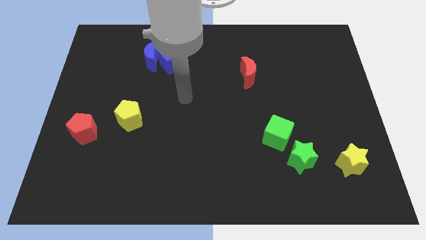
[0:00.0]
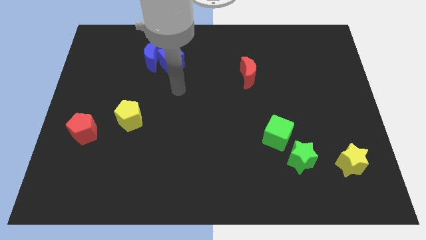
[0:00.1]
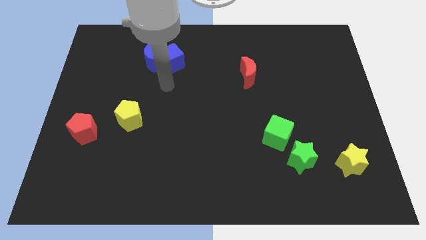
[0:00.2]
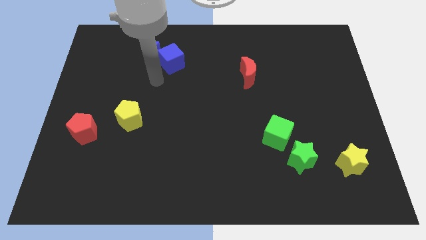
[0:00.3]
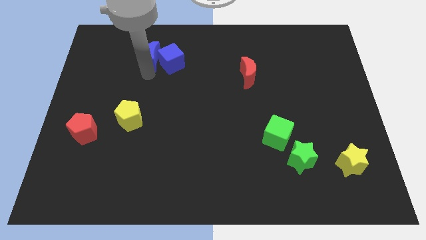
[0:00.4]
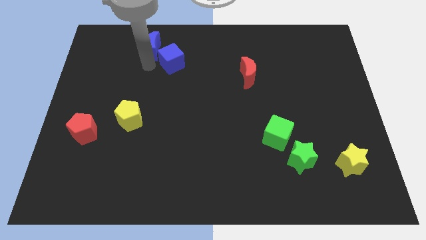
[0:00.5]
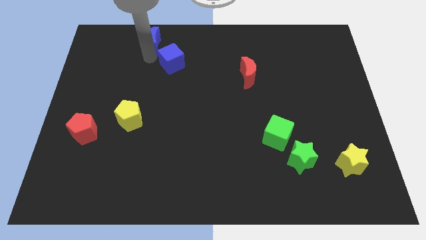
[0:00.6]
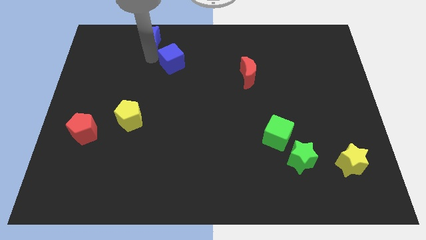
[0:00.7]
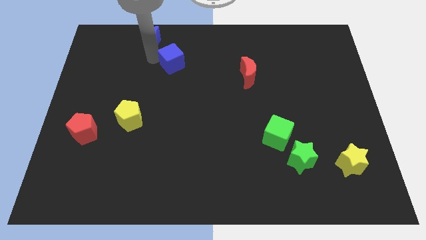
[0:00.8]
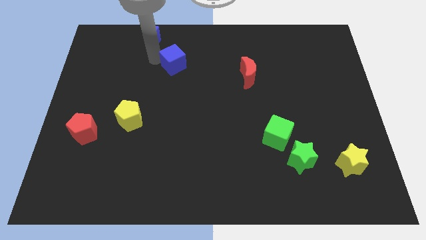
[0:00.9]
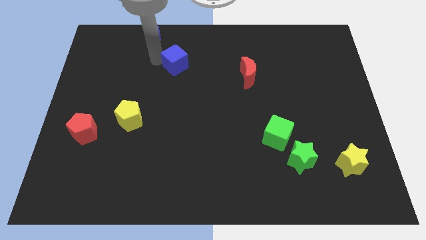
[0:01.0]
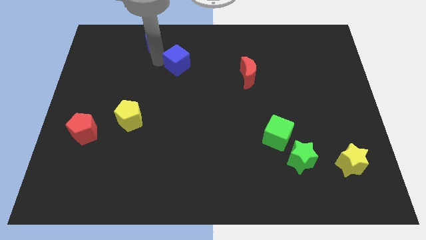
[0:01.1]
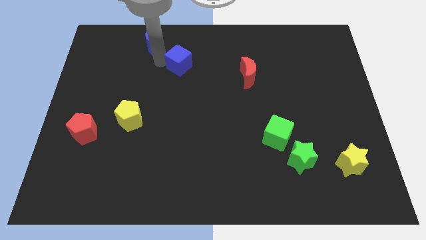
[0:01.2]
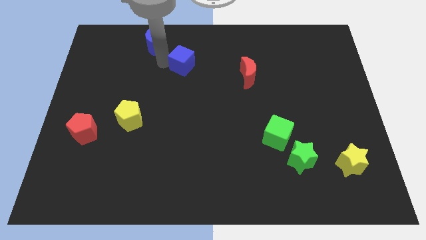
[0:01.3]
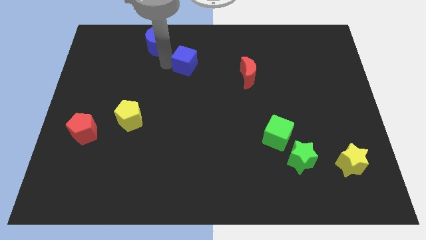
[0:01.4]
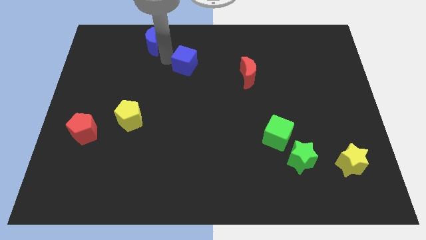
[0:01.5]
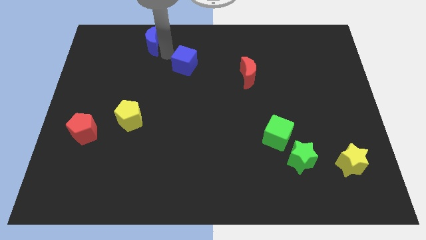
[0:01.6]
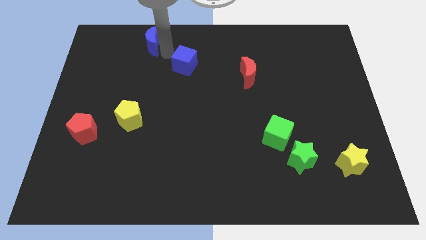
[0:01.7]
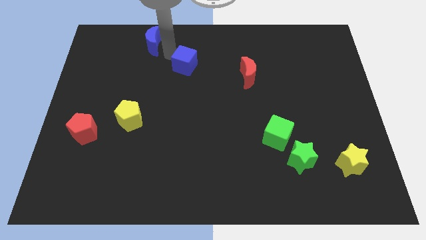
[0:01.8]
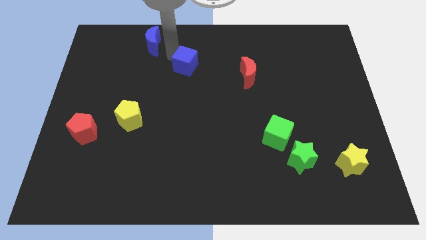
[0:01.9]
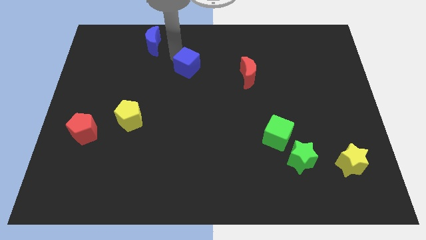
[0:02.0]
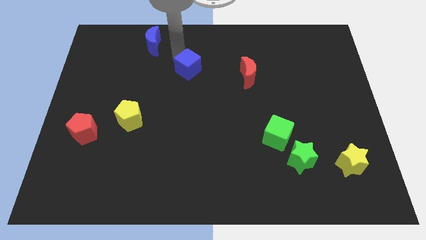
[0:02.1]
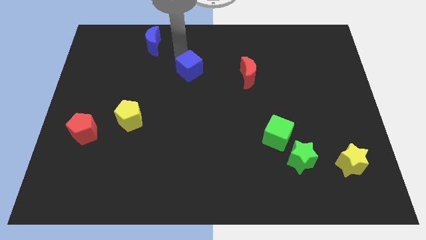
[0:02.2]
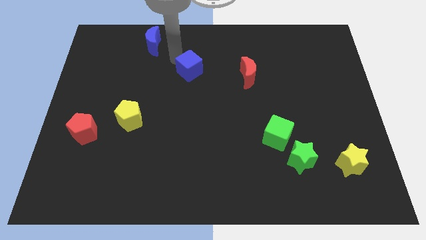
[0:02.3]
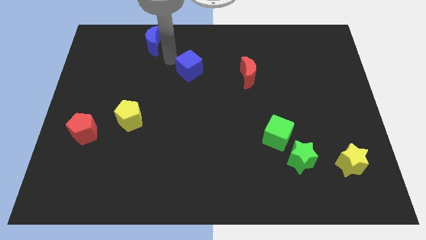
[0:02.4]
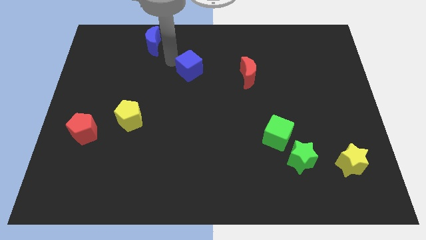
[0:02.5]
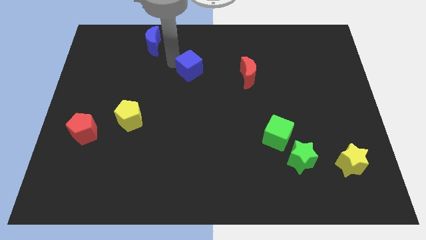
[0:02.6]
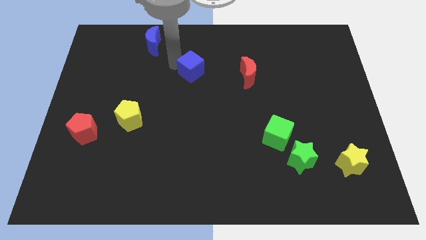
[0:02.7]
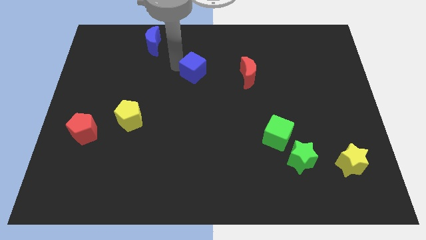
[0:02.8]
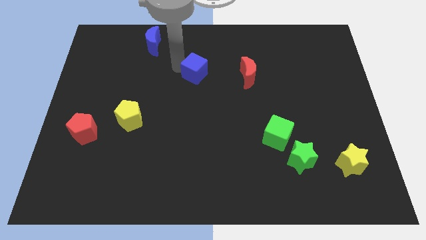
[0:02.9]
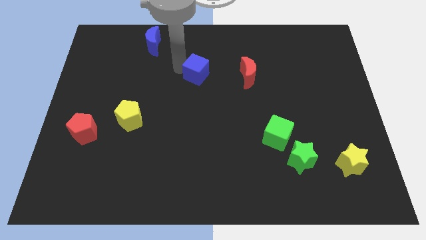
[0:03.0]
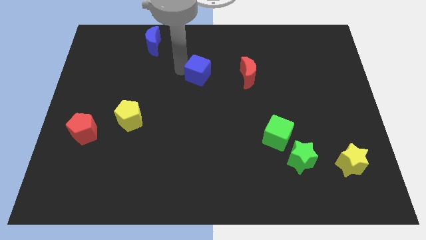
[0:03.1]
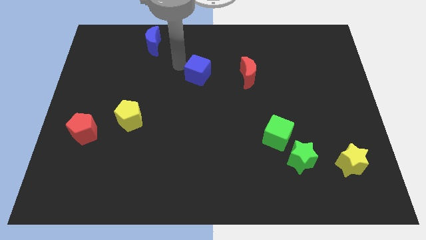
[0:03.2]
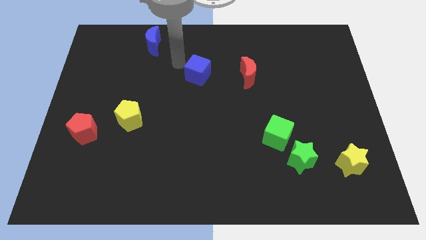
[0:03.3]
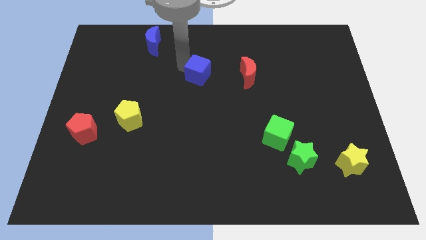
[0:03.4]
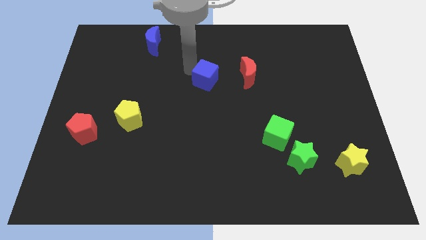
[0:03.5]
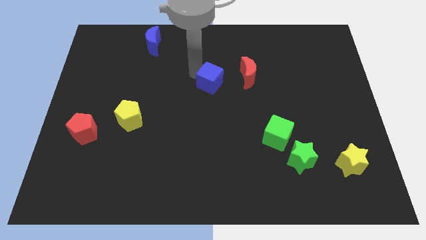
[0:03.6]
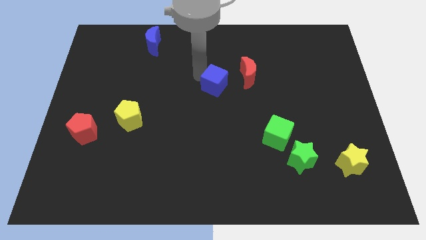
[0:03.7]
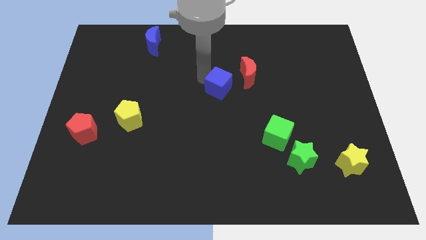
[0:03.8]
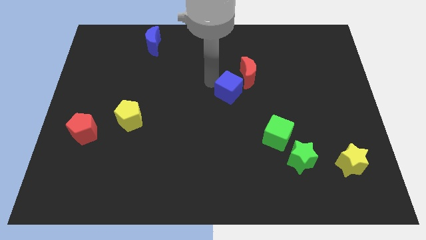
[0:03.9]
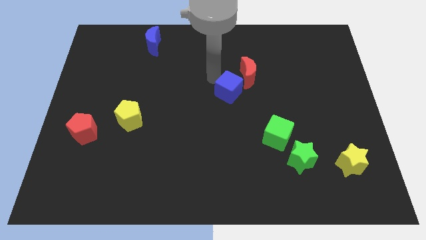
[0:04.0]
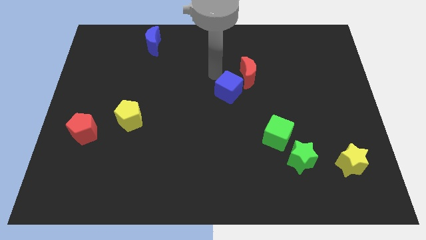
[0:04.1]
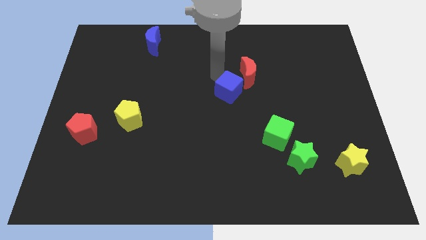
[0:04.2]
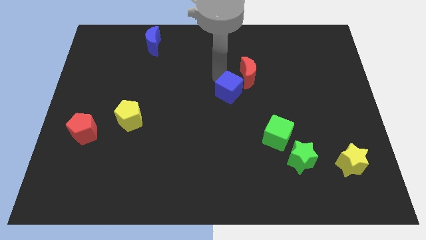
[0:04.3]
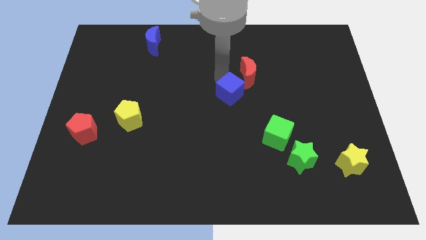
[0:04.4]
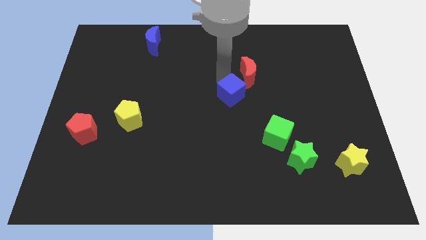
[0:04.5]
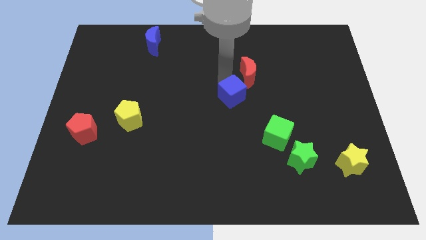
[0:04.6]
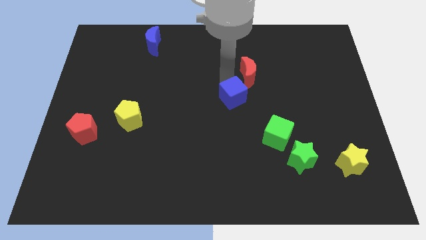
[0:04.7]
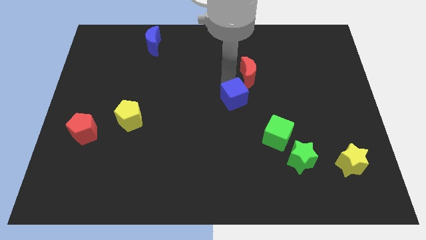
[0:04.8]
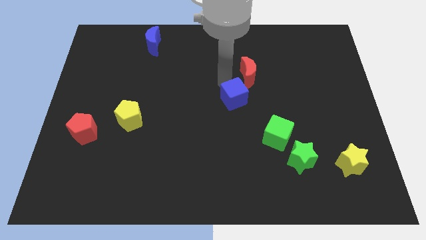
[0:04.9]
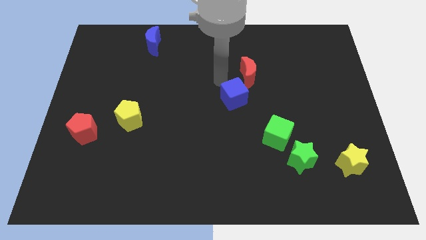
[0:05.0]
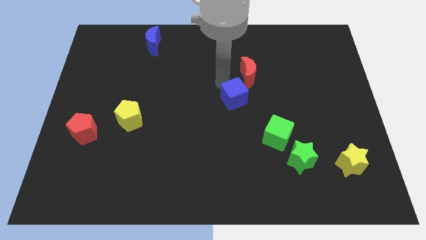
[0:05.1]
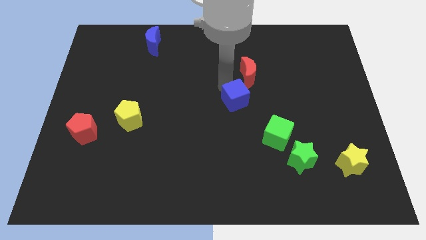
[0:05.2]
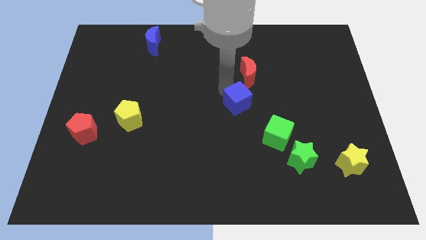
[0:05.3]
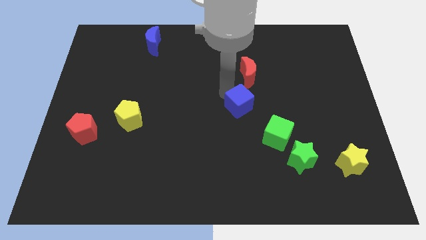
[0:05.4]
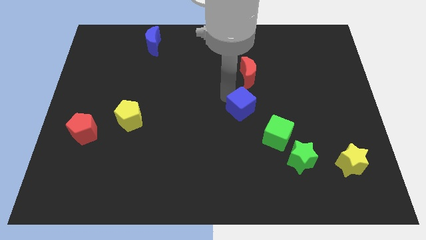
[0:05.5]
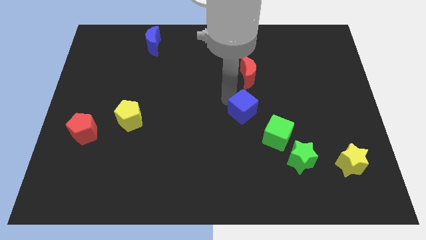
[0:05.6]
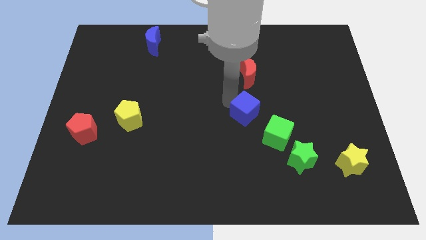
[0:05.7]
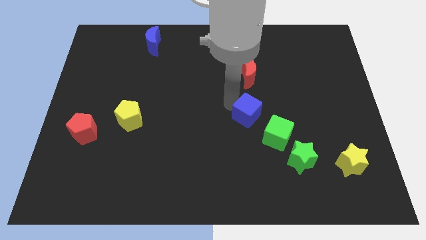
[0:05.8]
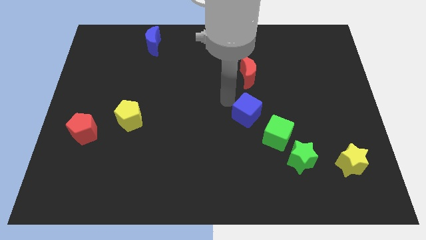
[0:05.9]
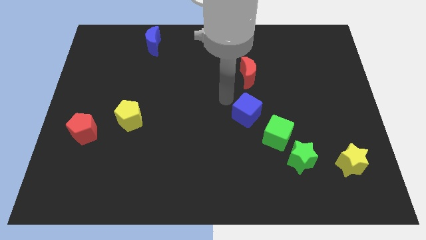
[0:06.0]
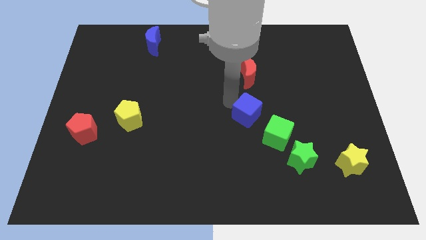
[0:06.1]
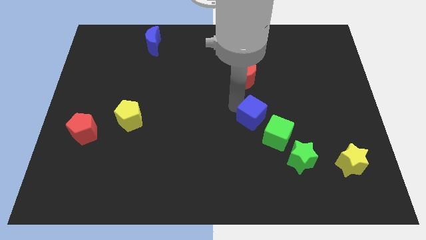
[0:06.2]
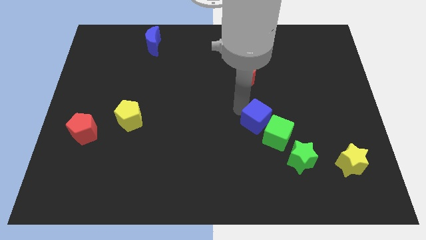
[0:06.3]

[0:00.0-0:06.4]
put the blue cube to the green cube

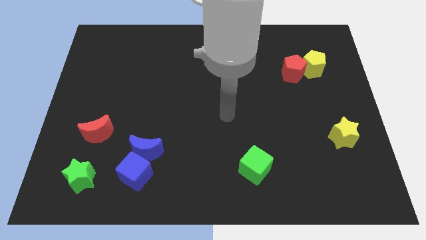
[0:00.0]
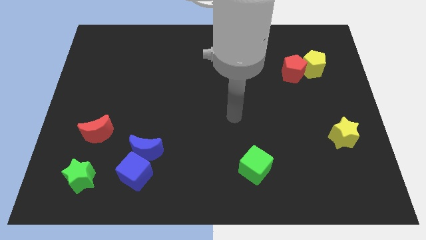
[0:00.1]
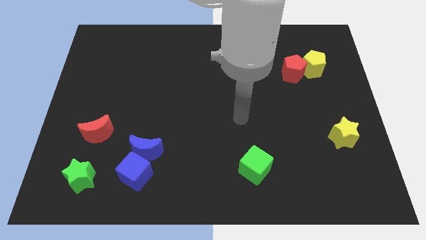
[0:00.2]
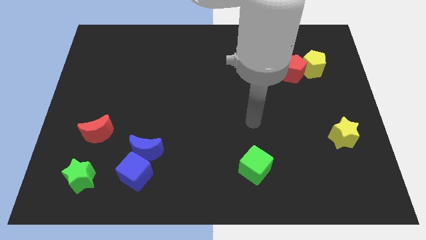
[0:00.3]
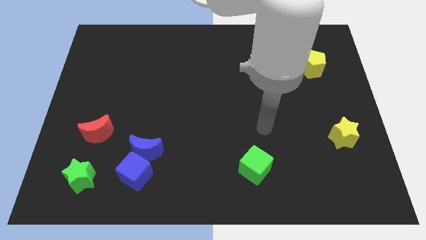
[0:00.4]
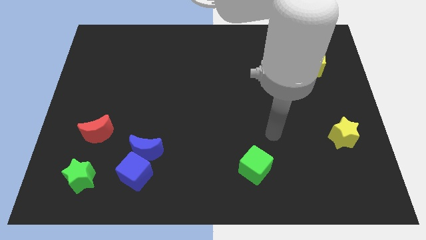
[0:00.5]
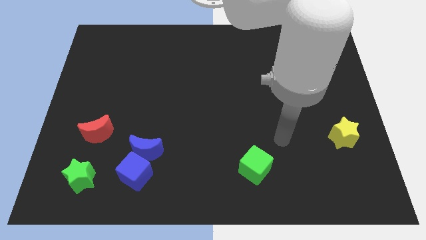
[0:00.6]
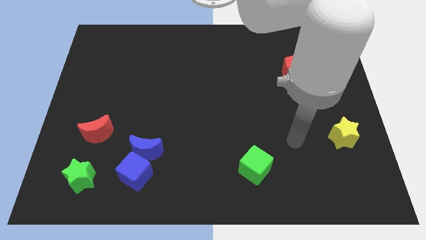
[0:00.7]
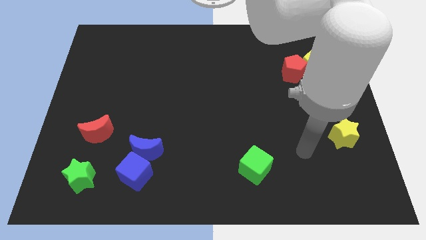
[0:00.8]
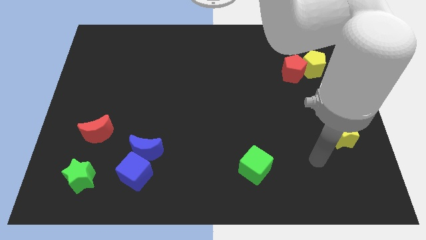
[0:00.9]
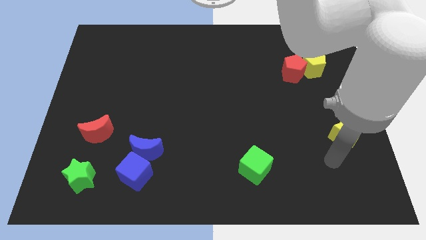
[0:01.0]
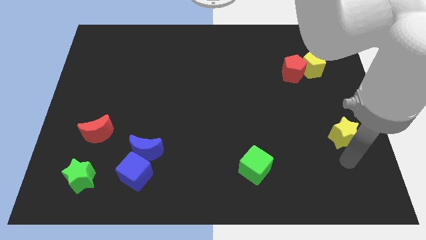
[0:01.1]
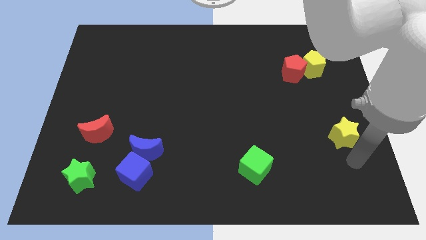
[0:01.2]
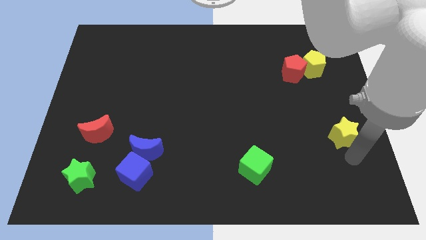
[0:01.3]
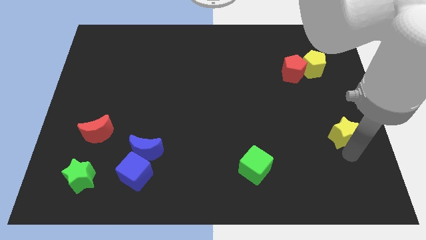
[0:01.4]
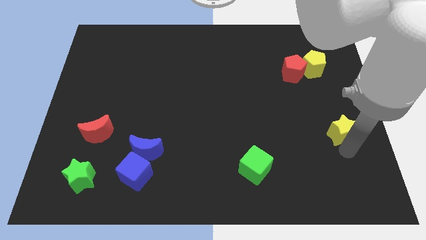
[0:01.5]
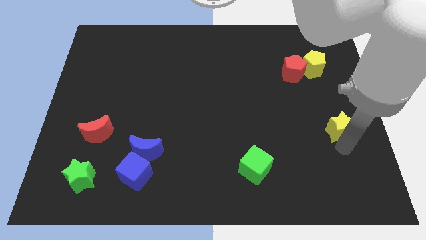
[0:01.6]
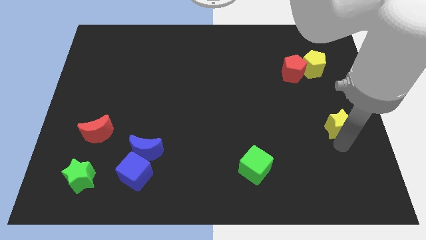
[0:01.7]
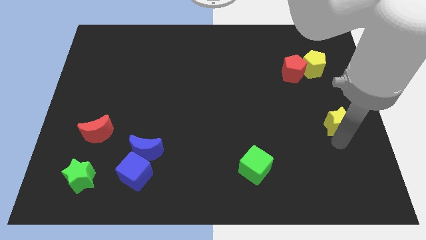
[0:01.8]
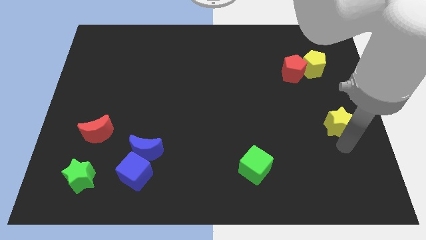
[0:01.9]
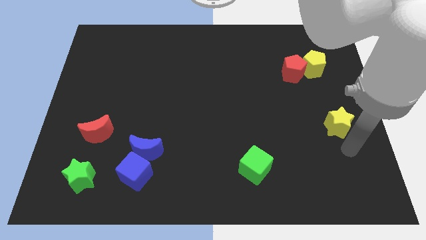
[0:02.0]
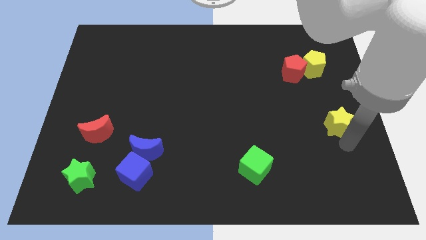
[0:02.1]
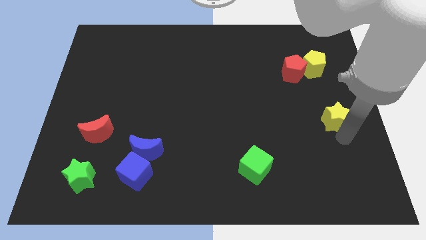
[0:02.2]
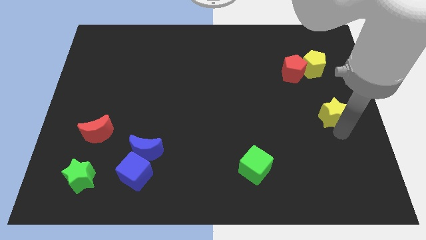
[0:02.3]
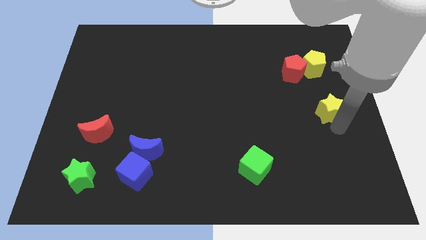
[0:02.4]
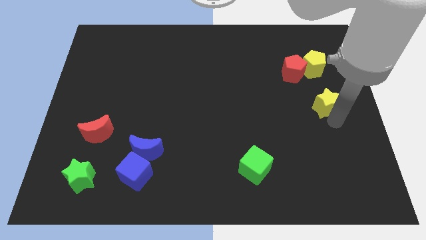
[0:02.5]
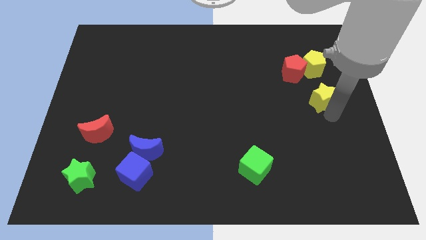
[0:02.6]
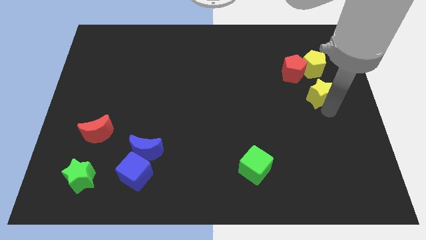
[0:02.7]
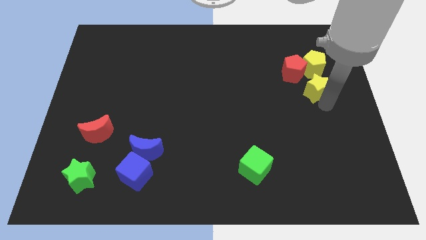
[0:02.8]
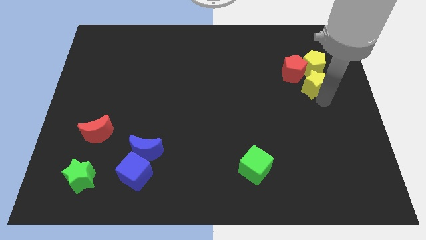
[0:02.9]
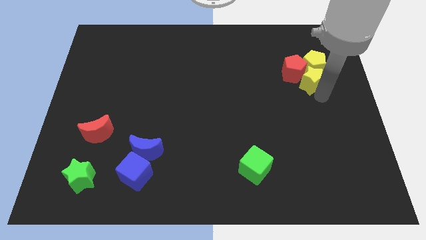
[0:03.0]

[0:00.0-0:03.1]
push the yellow star towards the red pentagon
